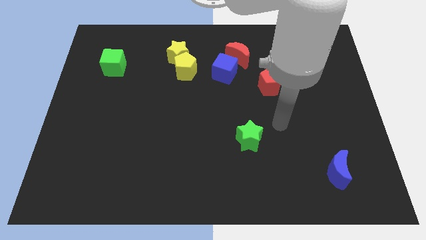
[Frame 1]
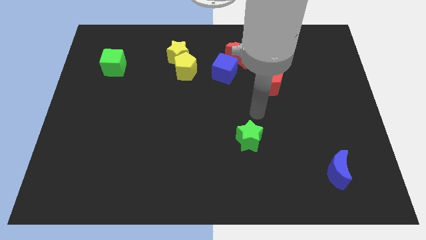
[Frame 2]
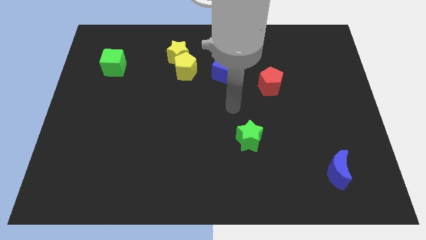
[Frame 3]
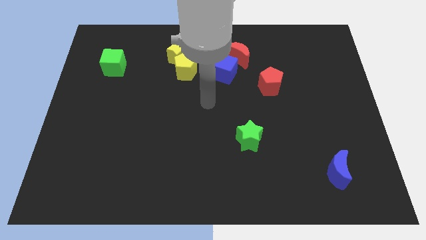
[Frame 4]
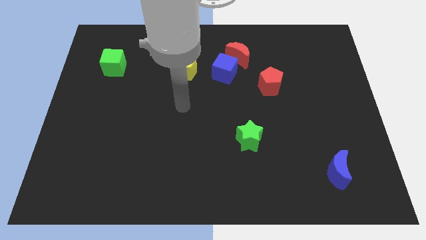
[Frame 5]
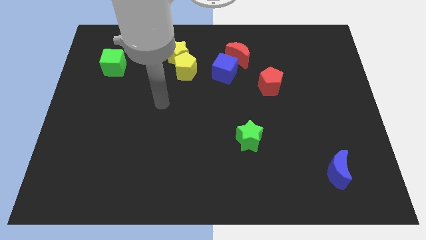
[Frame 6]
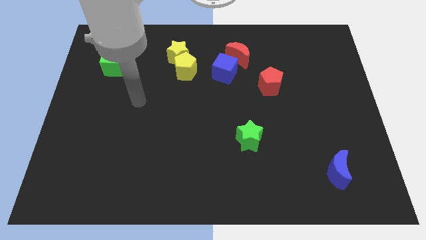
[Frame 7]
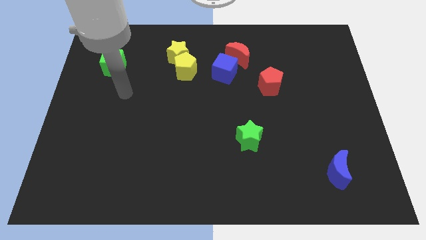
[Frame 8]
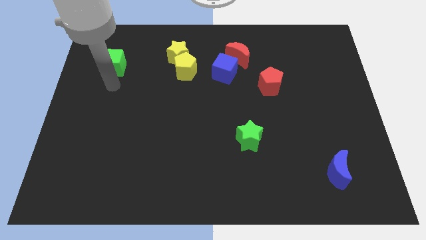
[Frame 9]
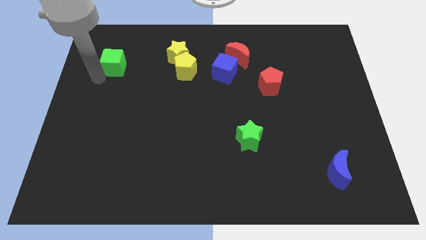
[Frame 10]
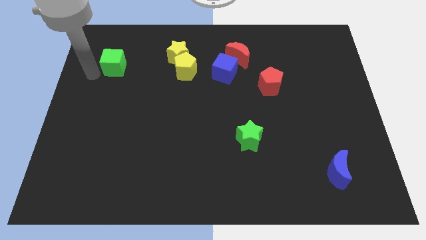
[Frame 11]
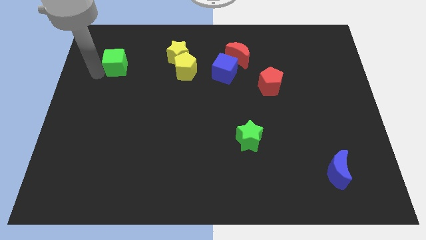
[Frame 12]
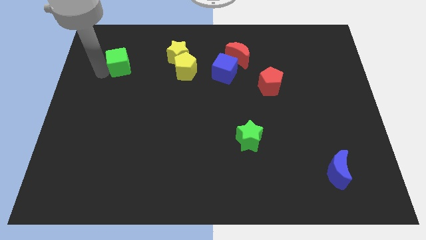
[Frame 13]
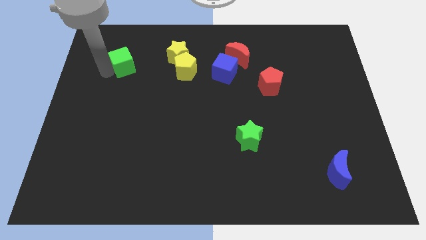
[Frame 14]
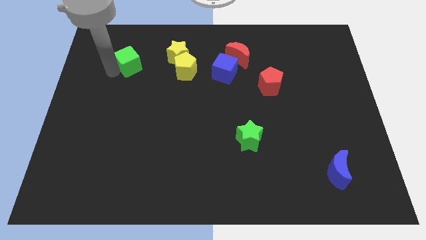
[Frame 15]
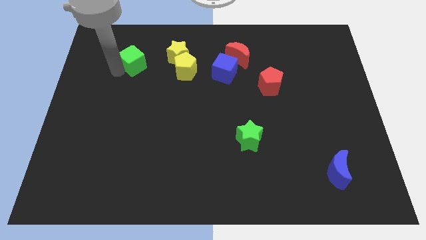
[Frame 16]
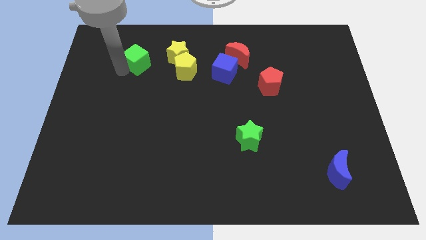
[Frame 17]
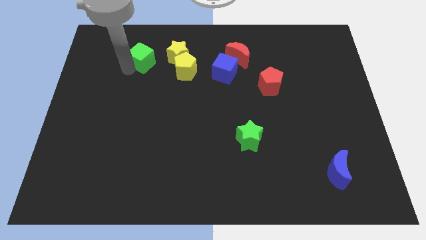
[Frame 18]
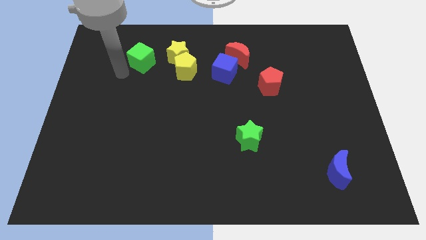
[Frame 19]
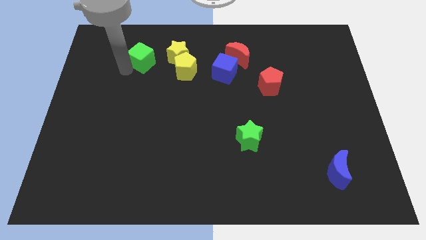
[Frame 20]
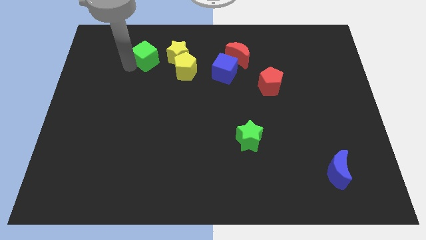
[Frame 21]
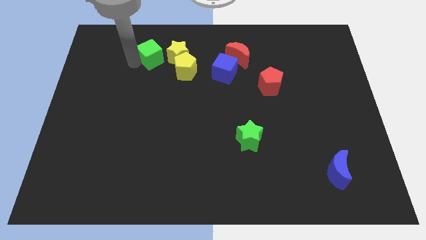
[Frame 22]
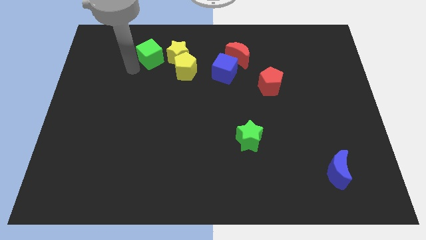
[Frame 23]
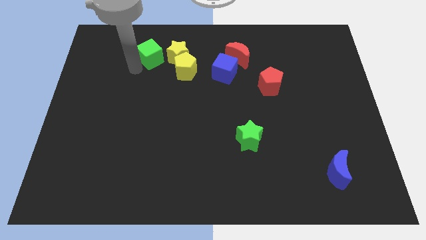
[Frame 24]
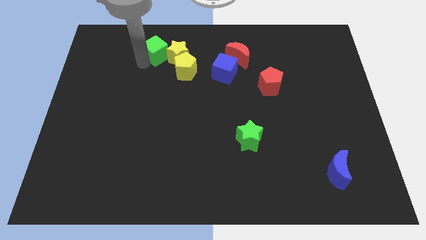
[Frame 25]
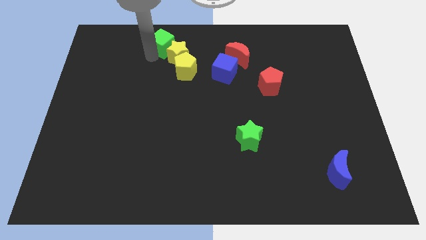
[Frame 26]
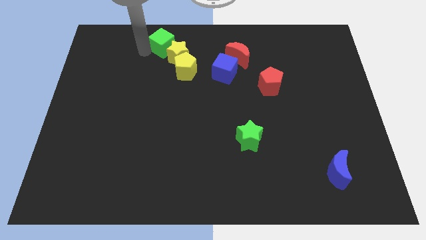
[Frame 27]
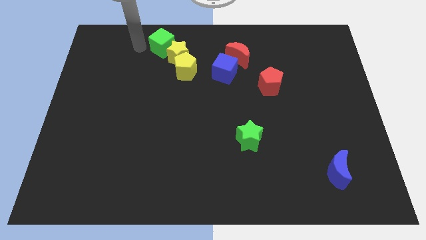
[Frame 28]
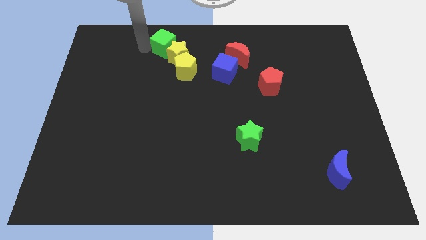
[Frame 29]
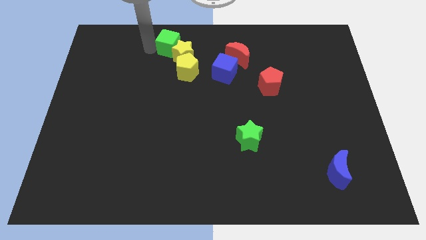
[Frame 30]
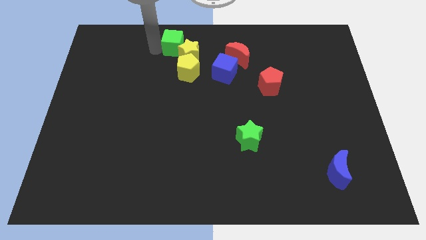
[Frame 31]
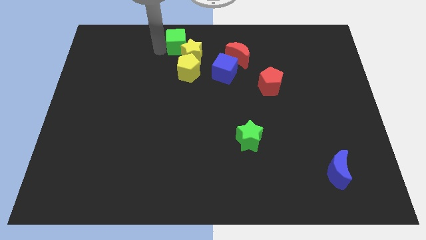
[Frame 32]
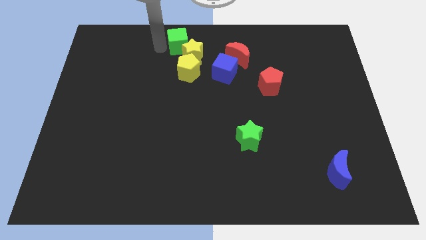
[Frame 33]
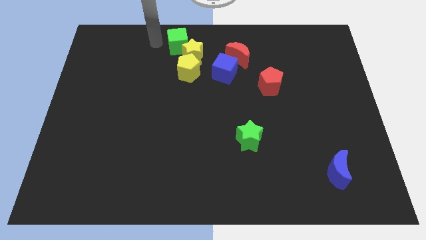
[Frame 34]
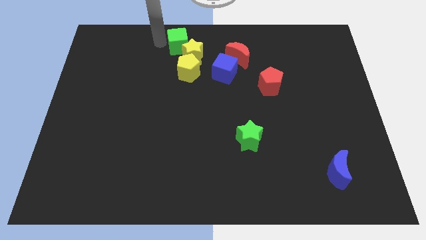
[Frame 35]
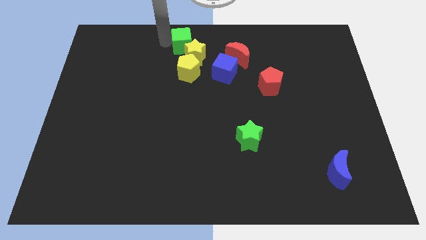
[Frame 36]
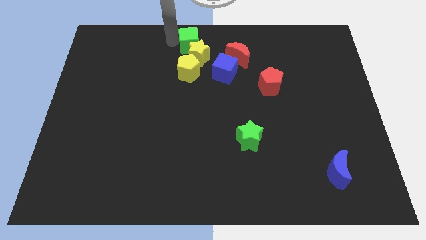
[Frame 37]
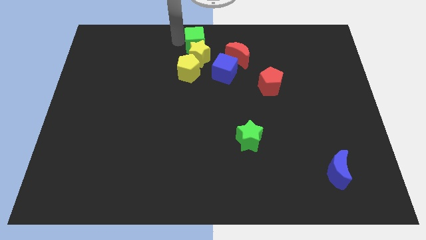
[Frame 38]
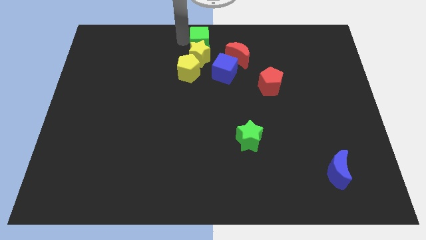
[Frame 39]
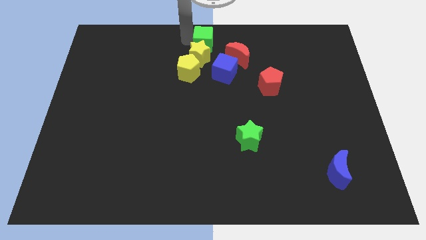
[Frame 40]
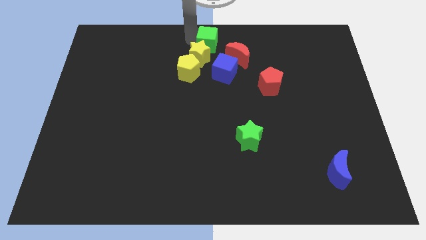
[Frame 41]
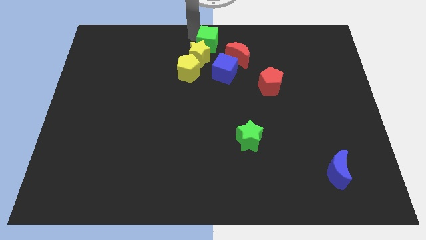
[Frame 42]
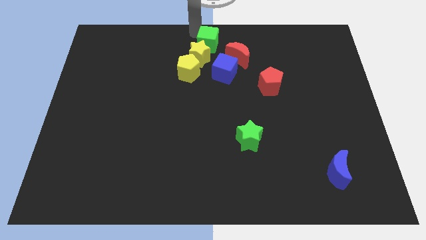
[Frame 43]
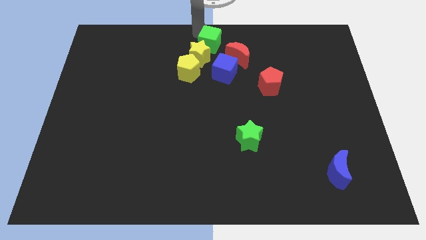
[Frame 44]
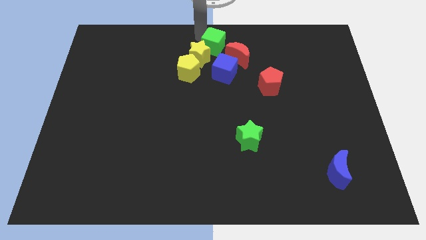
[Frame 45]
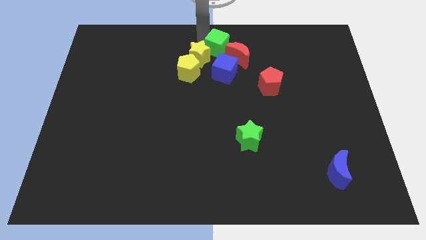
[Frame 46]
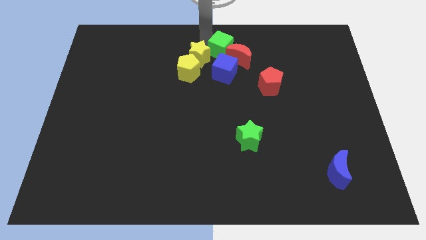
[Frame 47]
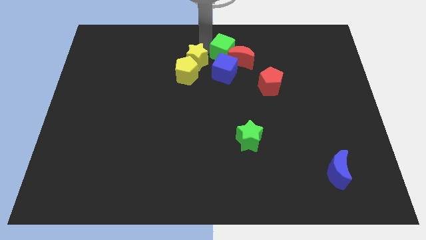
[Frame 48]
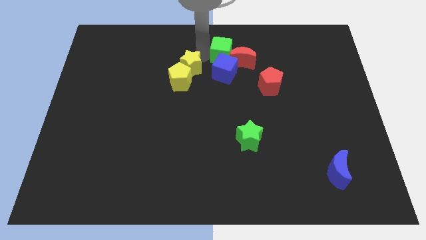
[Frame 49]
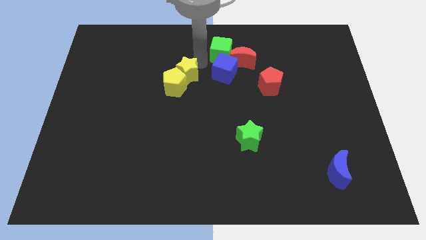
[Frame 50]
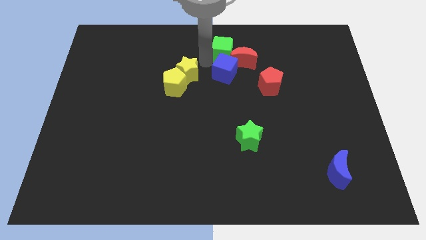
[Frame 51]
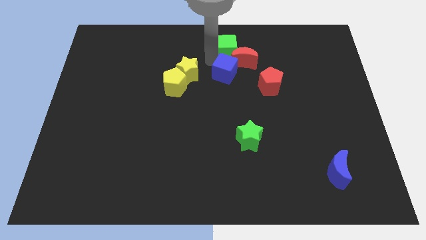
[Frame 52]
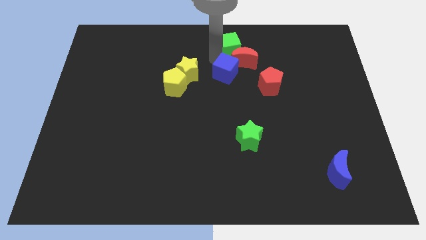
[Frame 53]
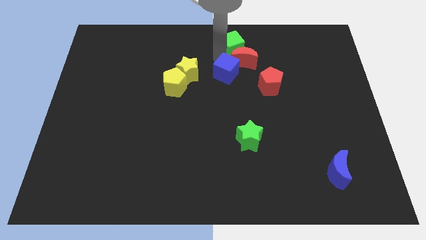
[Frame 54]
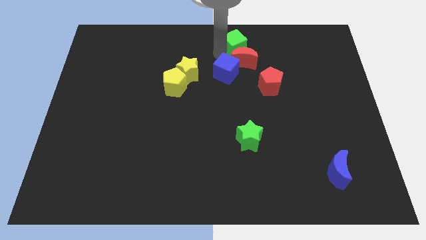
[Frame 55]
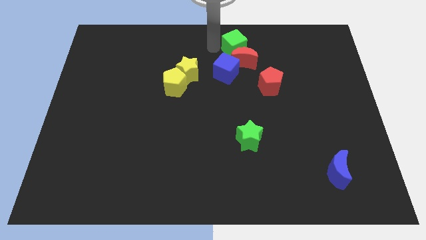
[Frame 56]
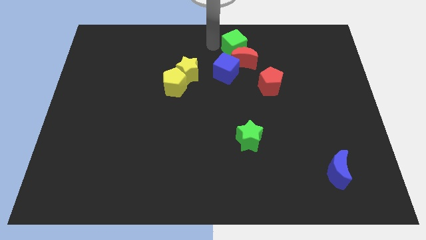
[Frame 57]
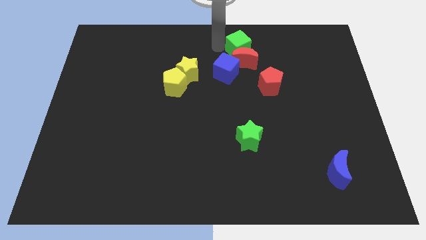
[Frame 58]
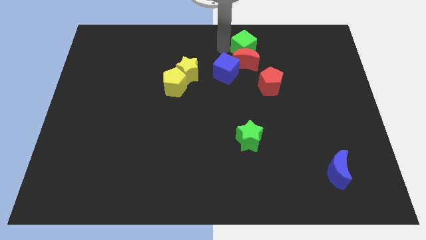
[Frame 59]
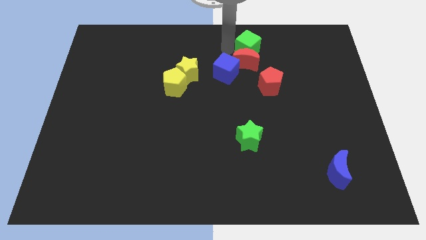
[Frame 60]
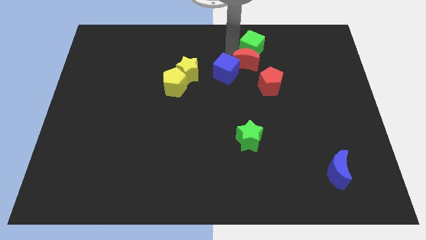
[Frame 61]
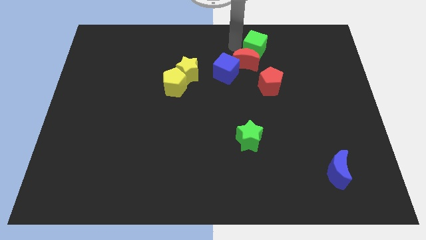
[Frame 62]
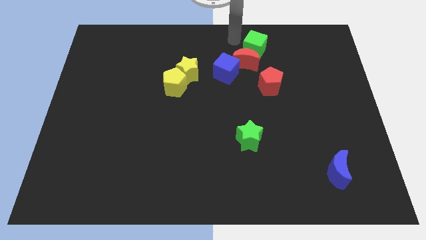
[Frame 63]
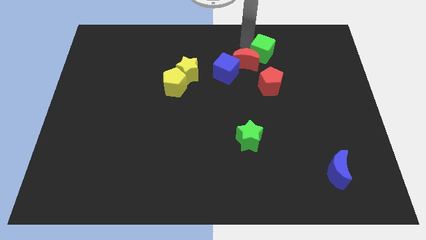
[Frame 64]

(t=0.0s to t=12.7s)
move the green cube right of the red moon
